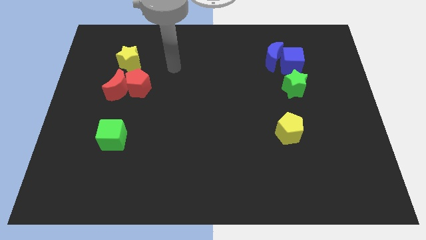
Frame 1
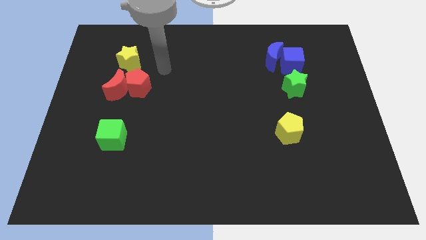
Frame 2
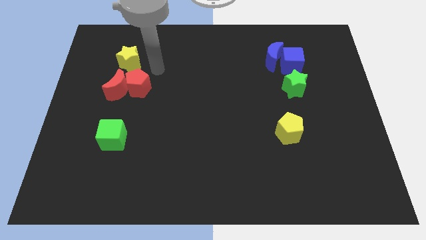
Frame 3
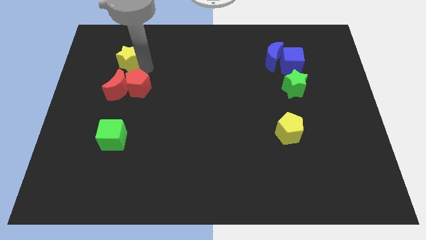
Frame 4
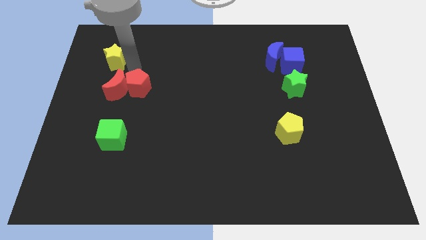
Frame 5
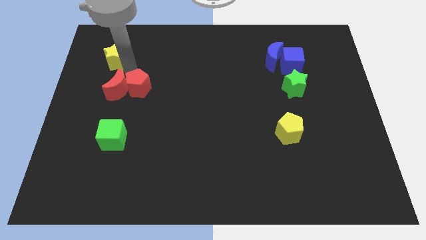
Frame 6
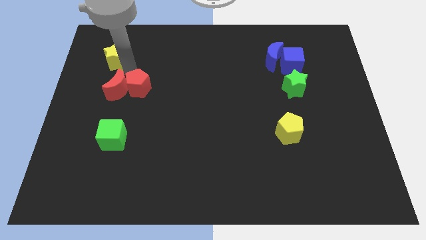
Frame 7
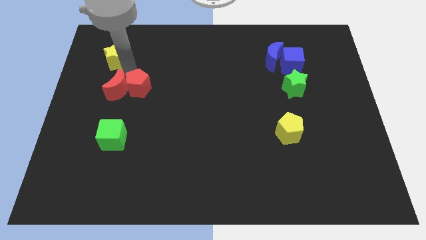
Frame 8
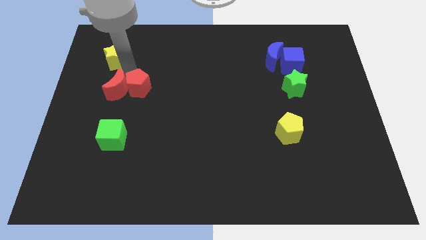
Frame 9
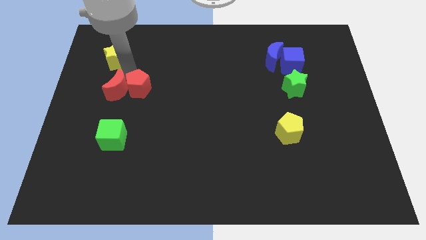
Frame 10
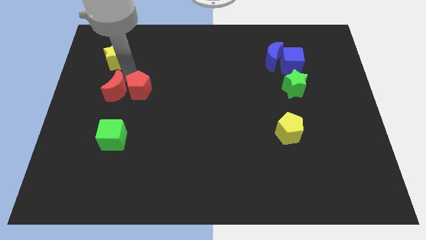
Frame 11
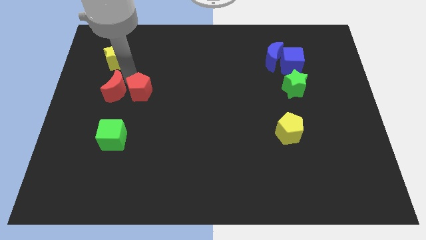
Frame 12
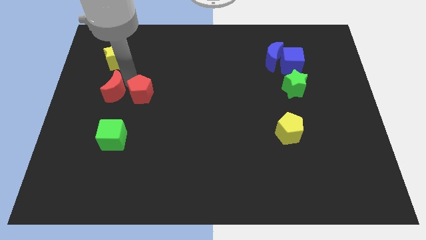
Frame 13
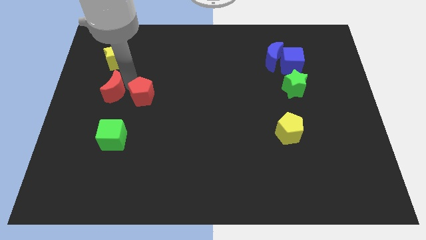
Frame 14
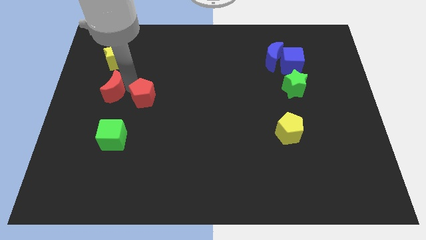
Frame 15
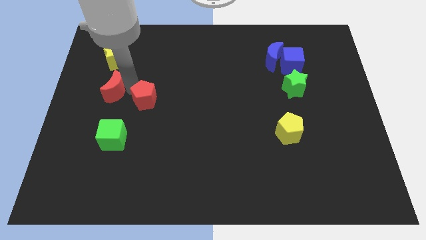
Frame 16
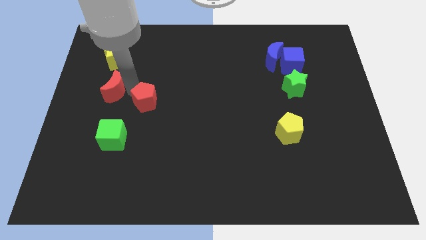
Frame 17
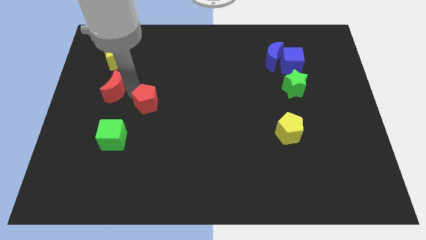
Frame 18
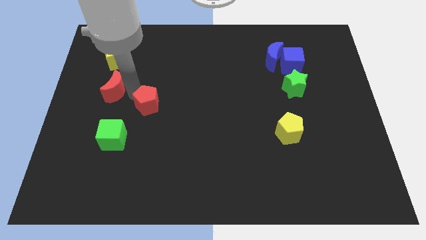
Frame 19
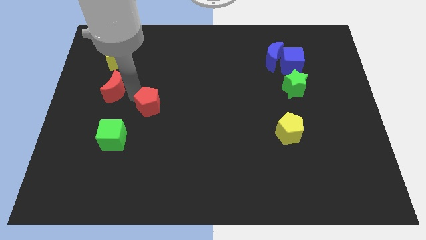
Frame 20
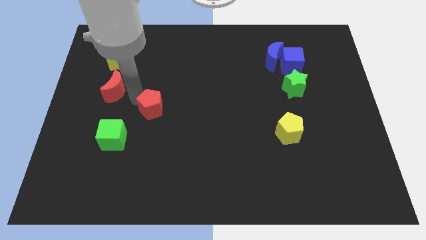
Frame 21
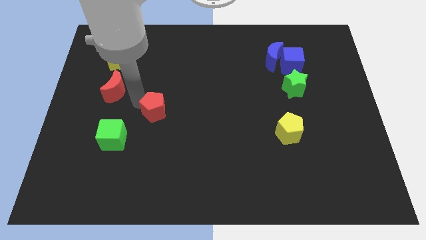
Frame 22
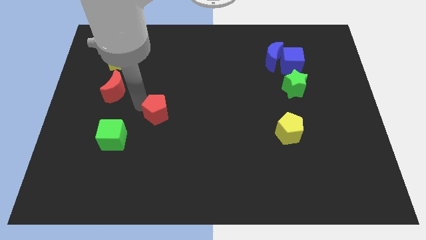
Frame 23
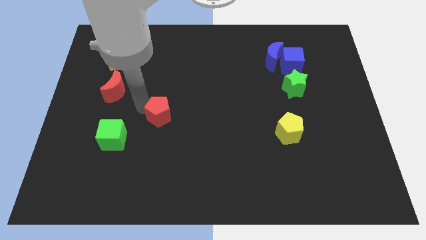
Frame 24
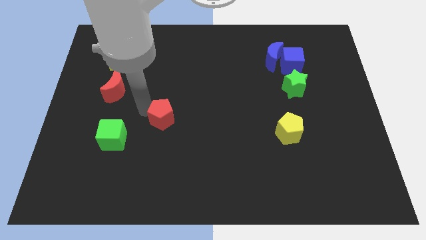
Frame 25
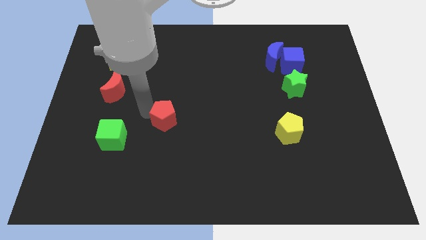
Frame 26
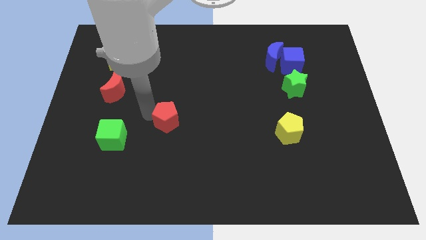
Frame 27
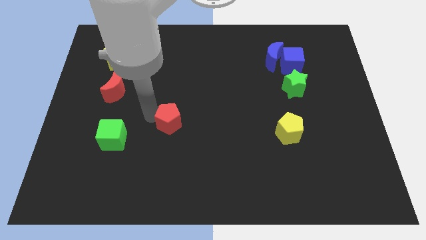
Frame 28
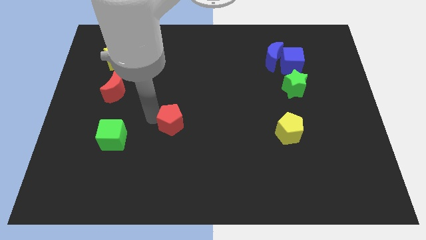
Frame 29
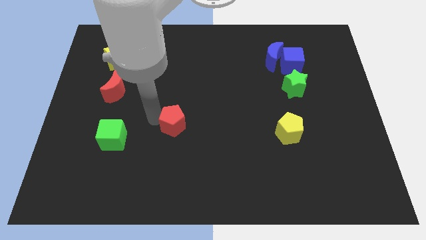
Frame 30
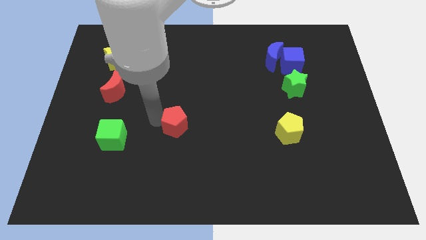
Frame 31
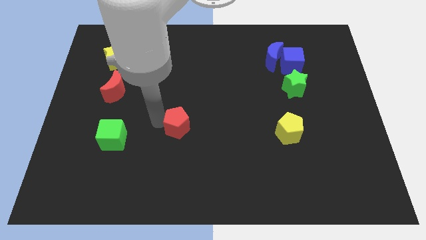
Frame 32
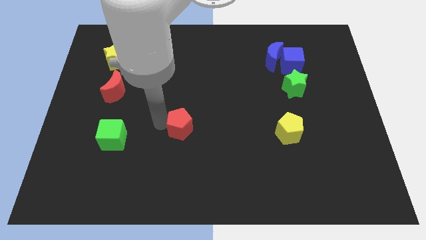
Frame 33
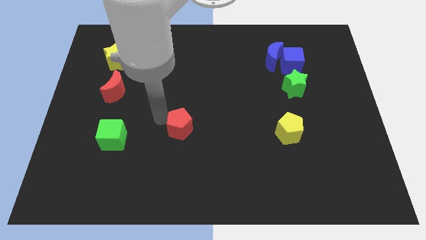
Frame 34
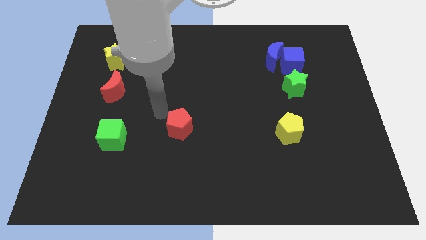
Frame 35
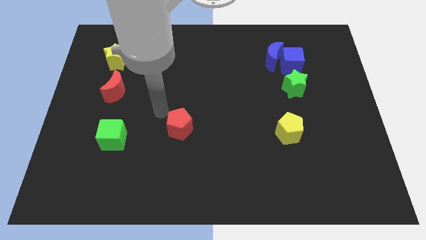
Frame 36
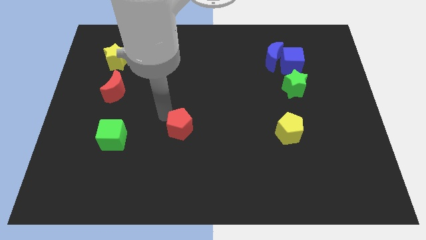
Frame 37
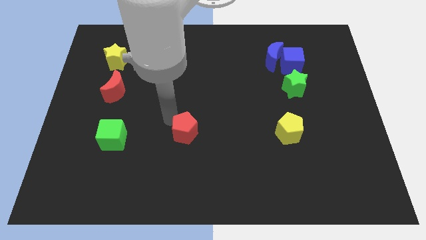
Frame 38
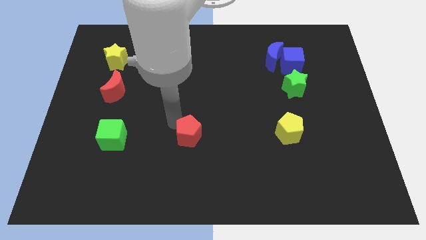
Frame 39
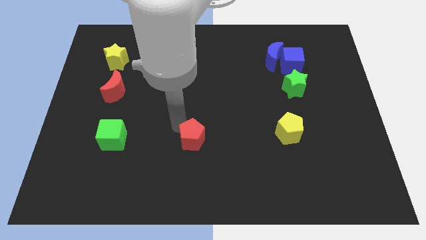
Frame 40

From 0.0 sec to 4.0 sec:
move the red pentagon downwards and then right

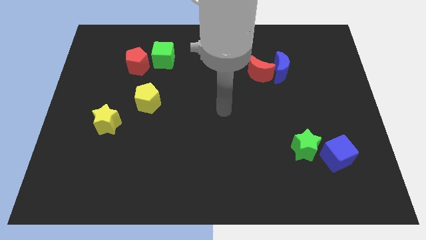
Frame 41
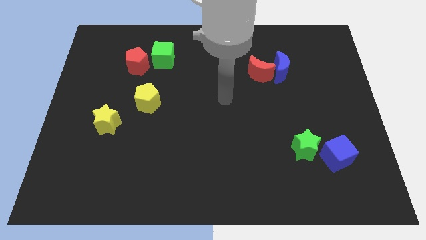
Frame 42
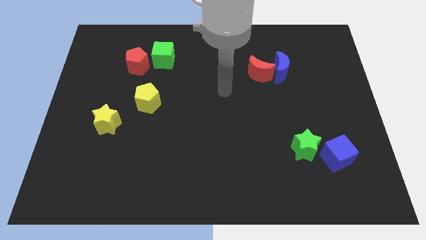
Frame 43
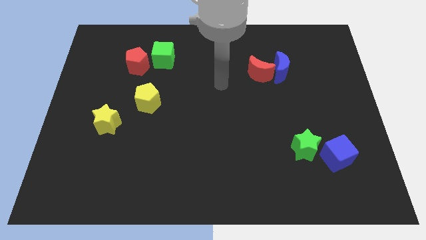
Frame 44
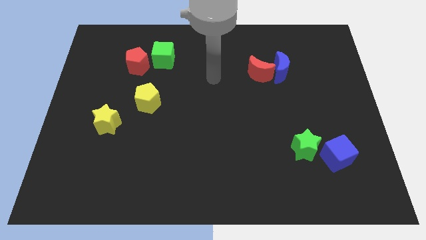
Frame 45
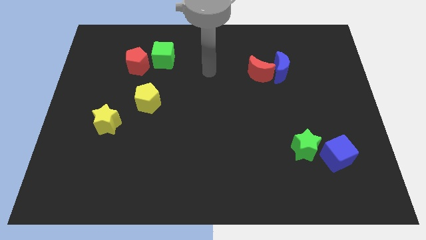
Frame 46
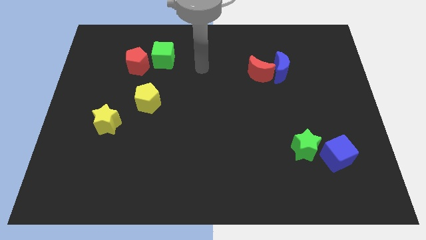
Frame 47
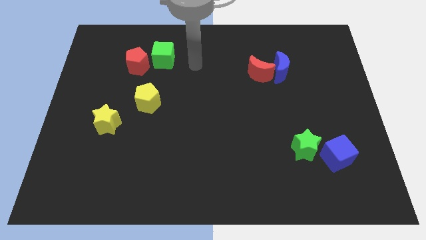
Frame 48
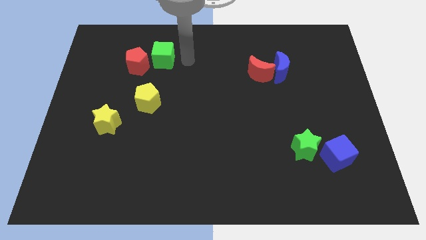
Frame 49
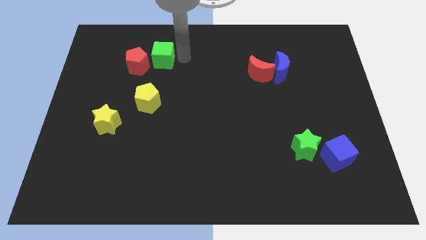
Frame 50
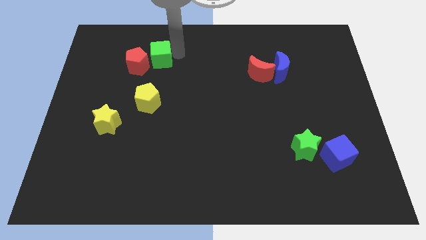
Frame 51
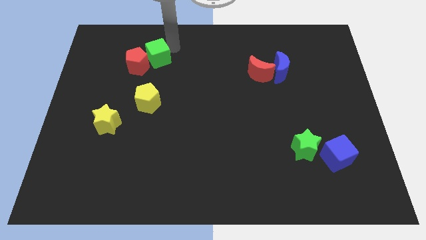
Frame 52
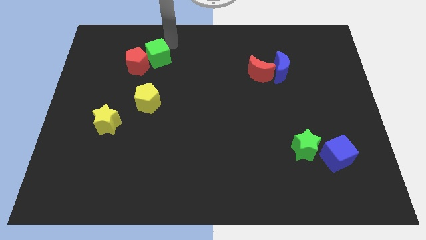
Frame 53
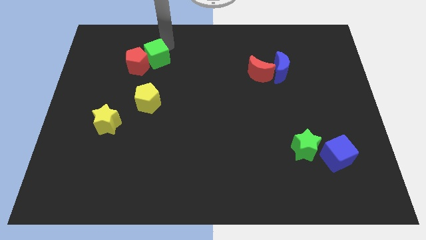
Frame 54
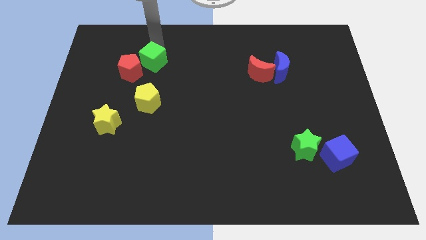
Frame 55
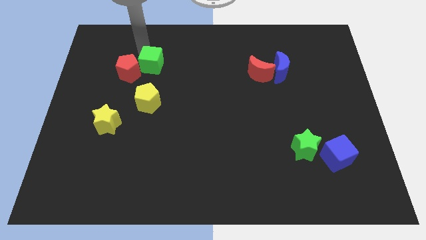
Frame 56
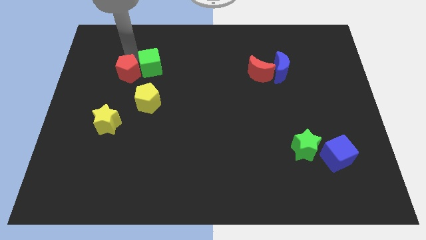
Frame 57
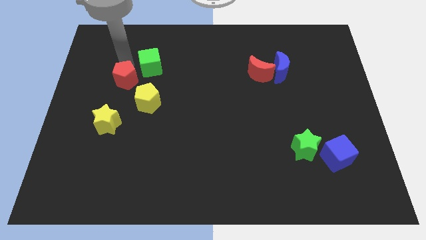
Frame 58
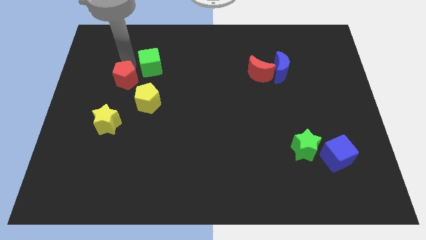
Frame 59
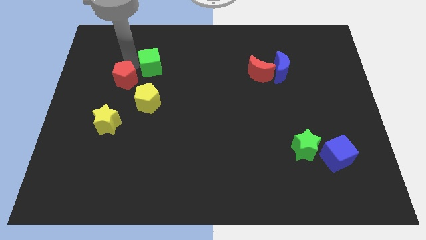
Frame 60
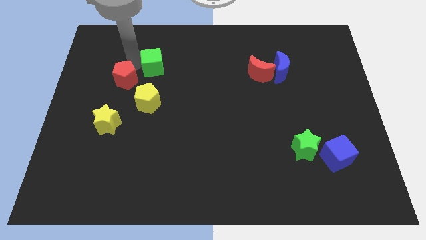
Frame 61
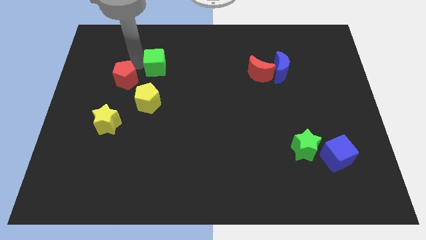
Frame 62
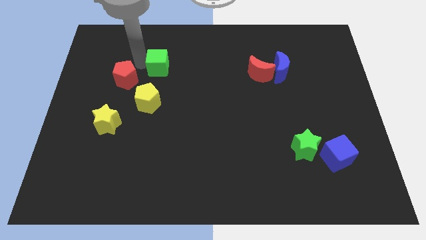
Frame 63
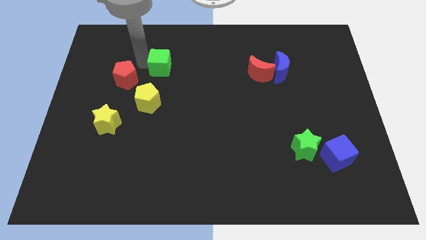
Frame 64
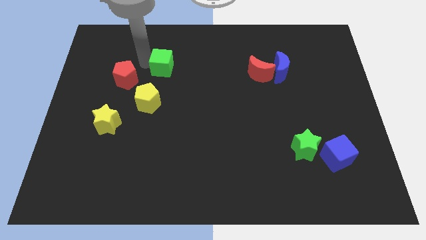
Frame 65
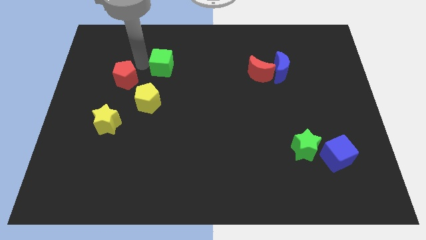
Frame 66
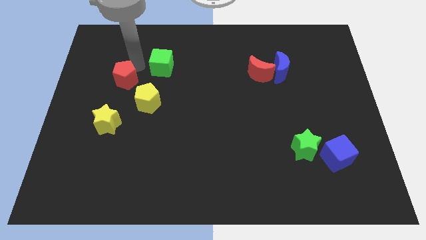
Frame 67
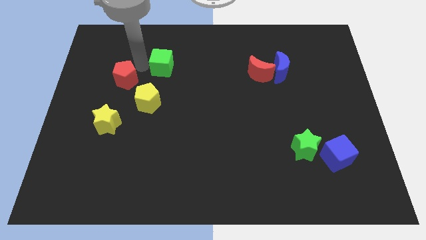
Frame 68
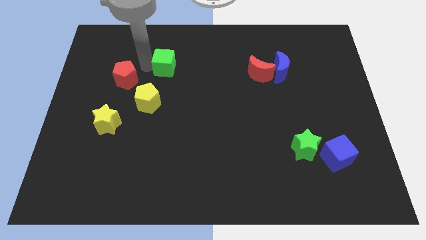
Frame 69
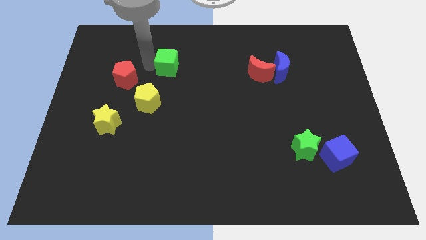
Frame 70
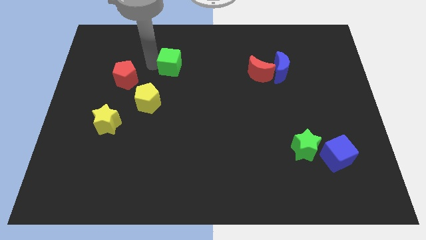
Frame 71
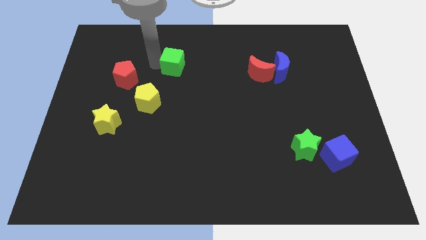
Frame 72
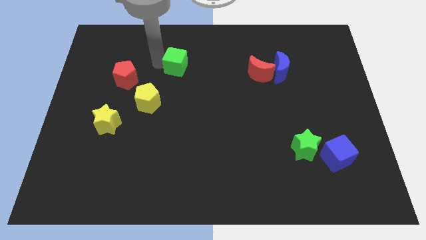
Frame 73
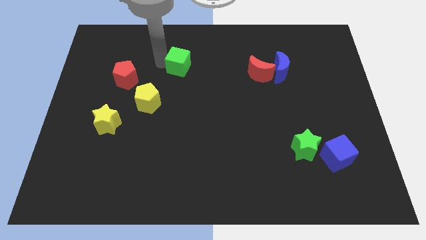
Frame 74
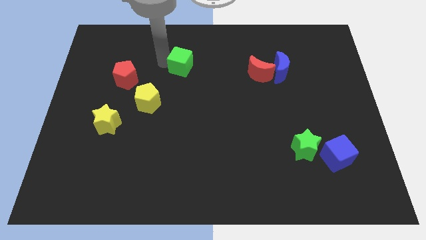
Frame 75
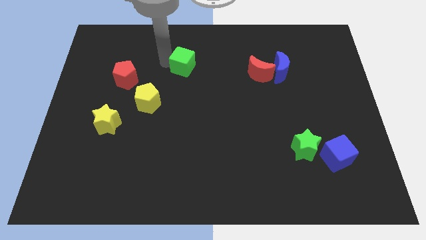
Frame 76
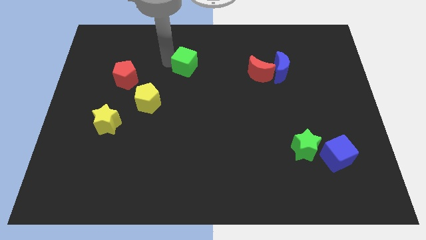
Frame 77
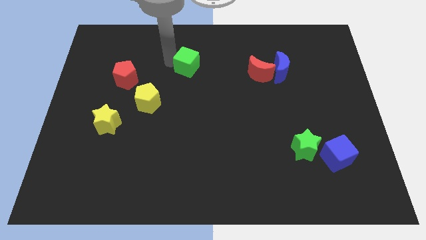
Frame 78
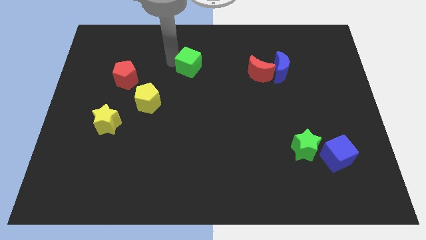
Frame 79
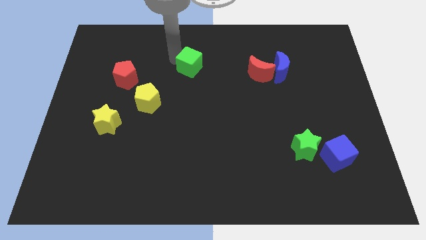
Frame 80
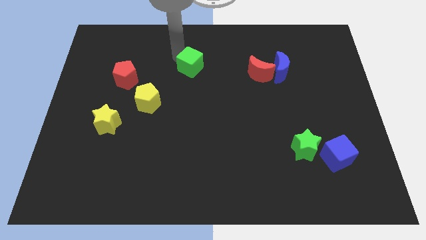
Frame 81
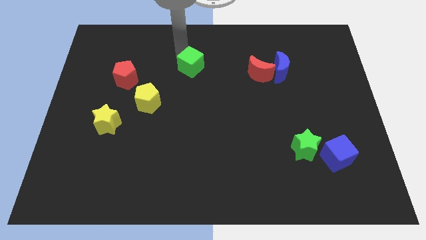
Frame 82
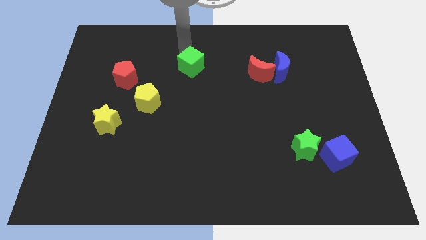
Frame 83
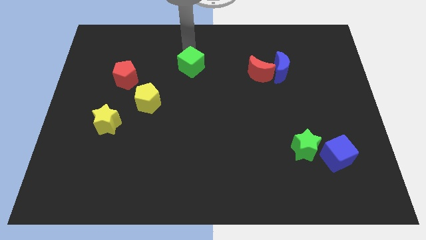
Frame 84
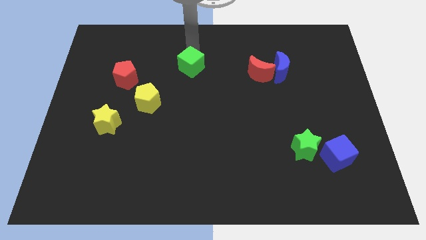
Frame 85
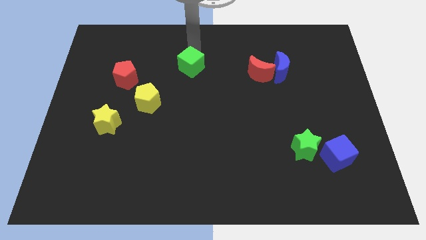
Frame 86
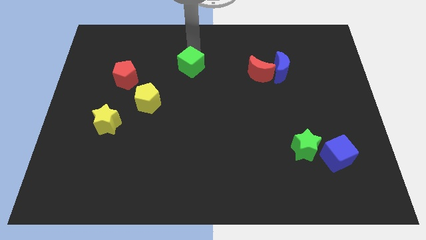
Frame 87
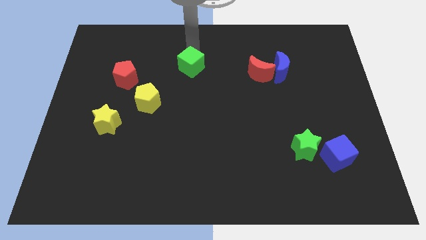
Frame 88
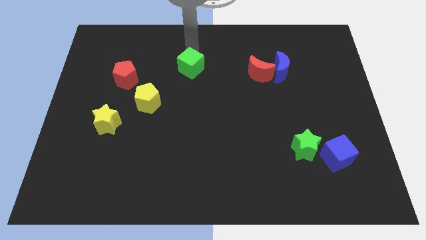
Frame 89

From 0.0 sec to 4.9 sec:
move the green cube a little bit down and to the right diagonally
